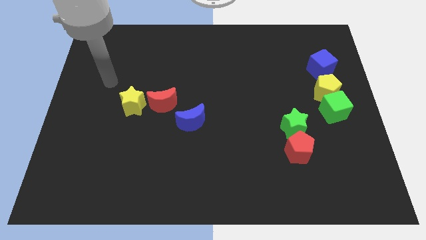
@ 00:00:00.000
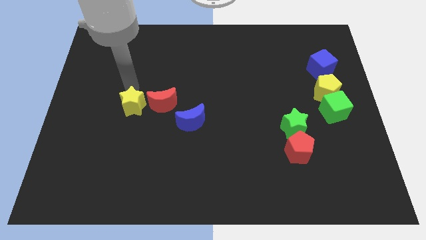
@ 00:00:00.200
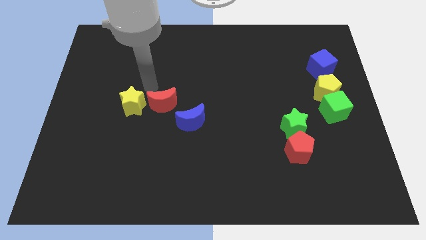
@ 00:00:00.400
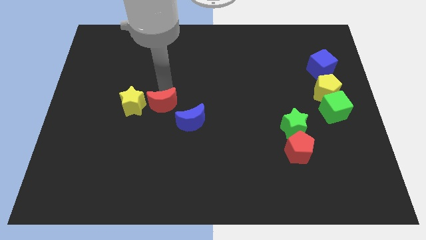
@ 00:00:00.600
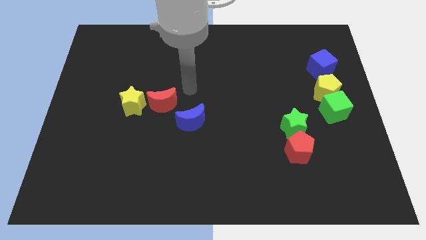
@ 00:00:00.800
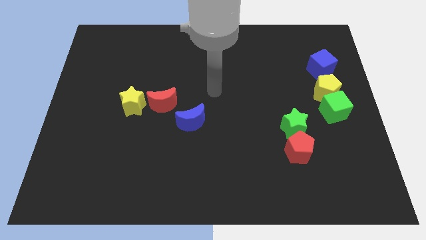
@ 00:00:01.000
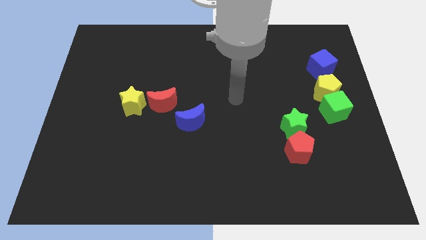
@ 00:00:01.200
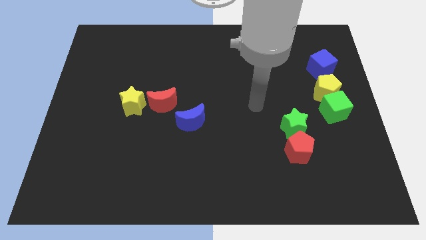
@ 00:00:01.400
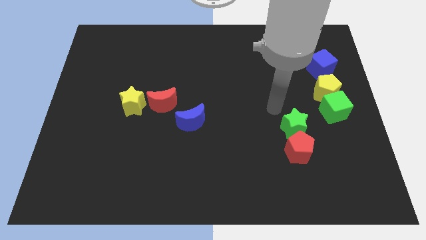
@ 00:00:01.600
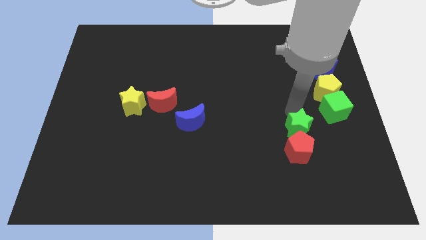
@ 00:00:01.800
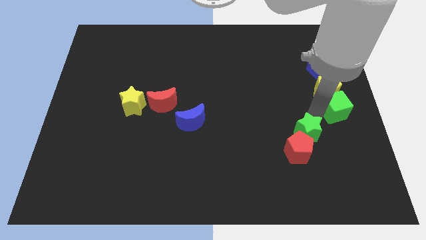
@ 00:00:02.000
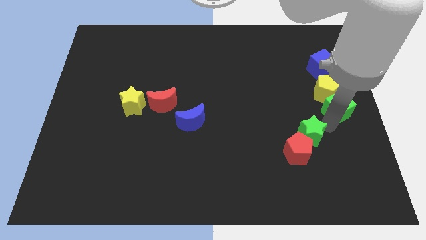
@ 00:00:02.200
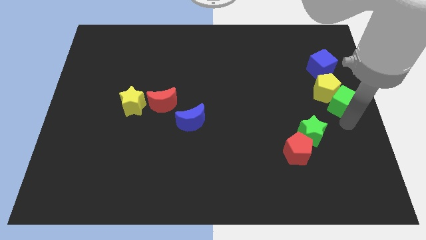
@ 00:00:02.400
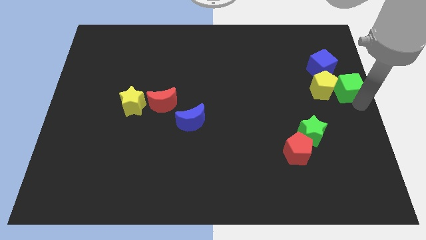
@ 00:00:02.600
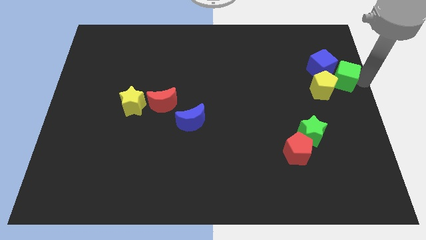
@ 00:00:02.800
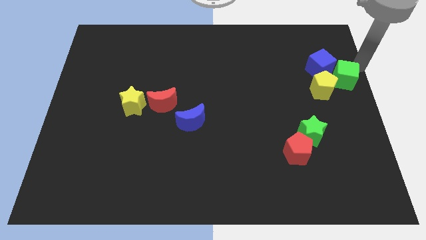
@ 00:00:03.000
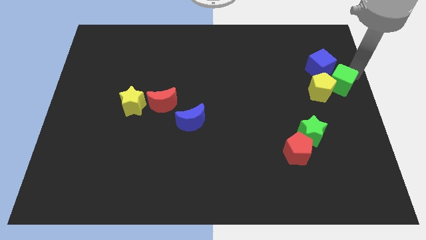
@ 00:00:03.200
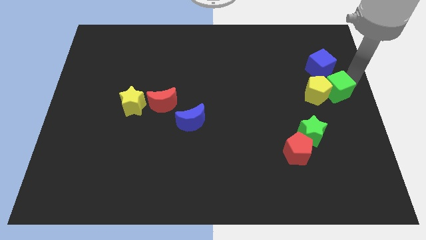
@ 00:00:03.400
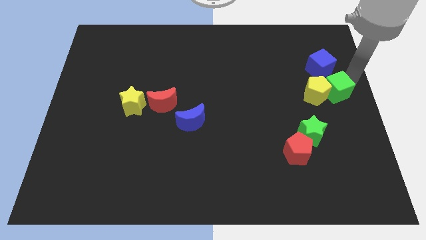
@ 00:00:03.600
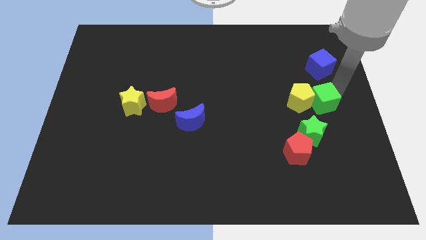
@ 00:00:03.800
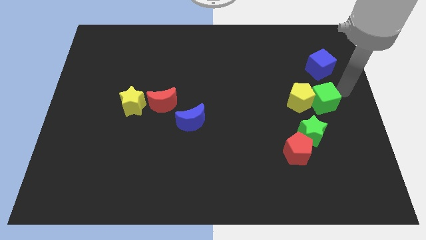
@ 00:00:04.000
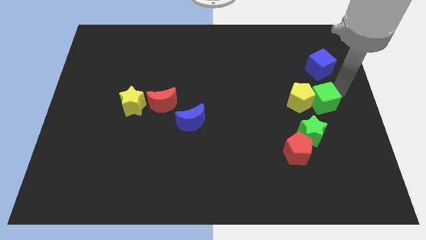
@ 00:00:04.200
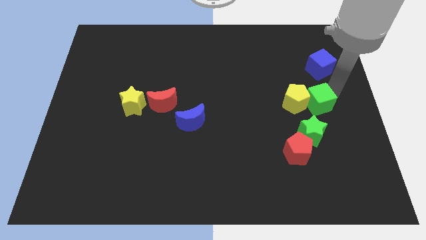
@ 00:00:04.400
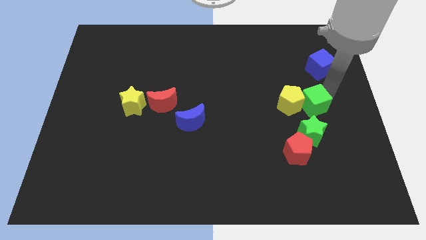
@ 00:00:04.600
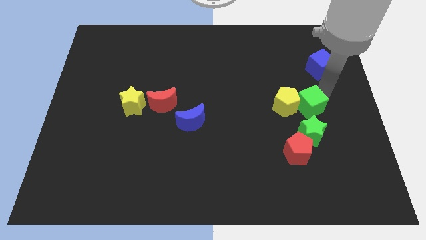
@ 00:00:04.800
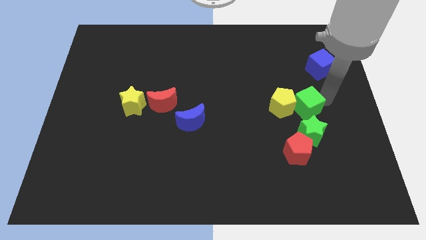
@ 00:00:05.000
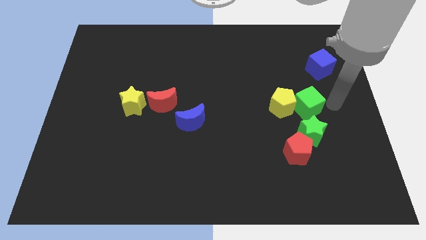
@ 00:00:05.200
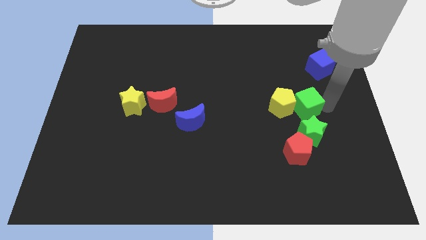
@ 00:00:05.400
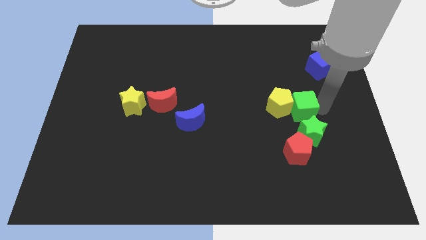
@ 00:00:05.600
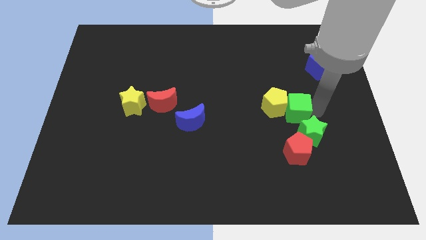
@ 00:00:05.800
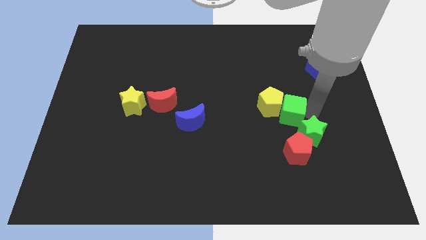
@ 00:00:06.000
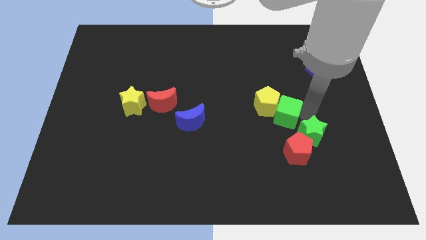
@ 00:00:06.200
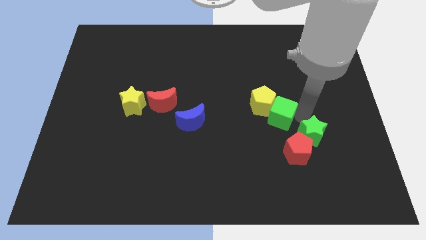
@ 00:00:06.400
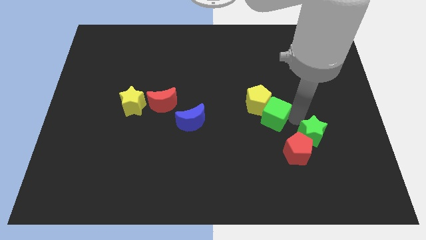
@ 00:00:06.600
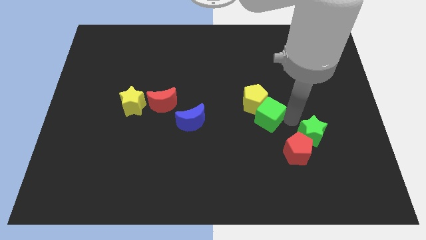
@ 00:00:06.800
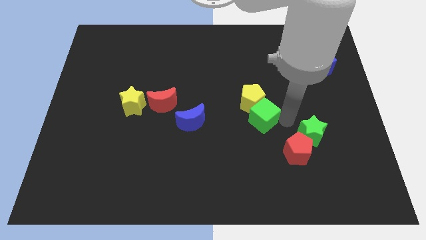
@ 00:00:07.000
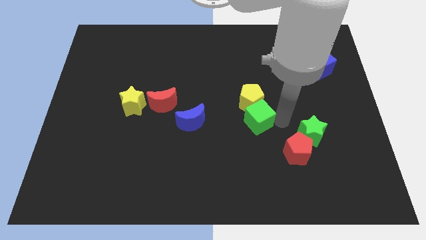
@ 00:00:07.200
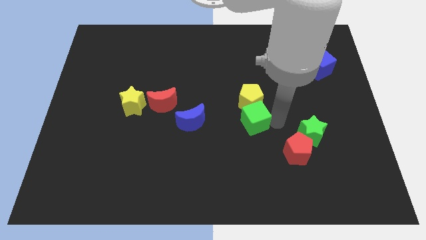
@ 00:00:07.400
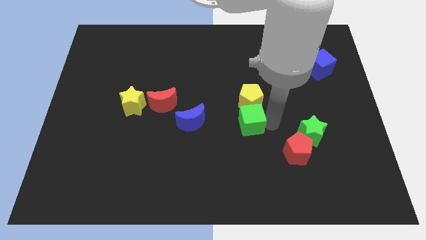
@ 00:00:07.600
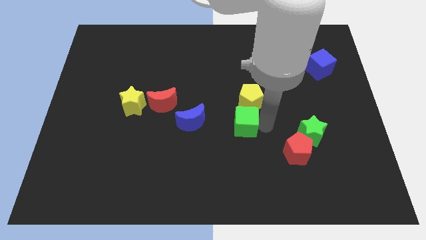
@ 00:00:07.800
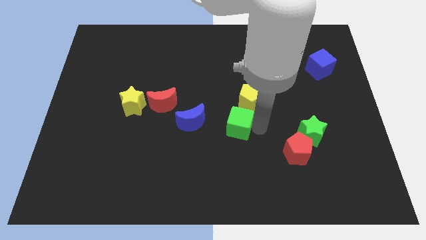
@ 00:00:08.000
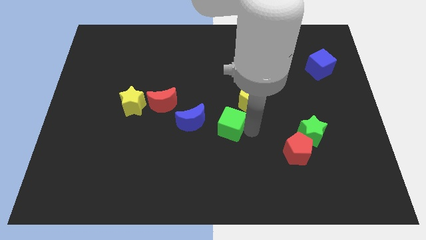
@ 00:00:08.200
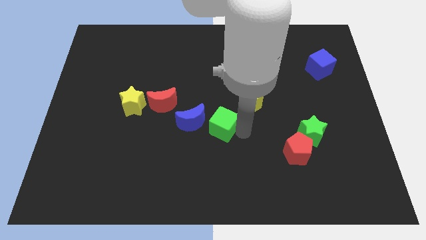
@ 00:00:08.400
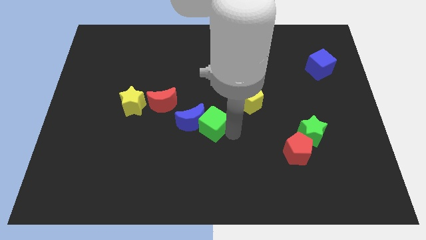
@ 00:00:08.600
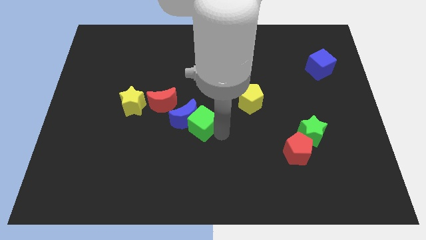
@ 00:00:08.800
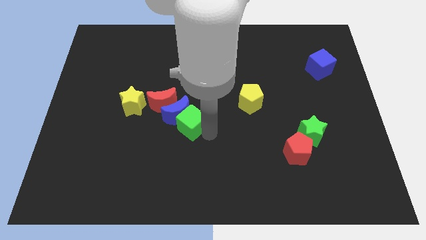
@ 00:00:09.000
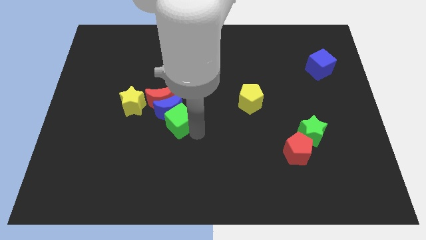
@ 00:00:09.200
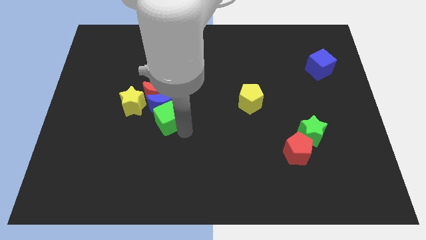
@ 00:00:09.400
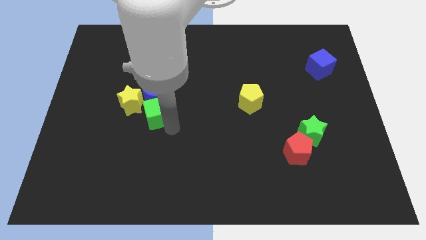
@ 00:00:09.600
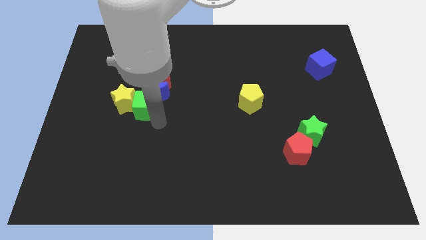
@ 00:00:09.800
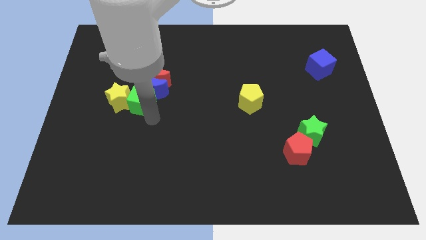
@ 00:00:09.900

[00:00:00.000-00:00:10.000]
slide the green cube diagonally up and to the right of the yellow star

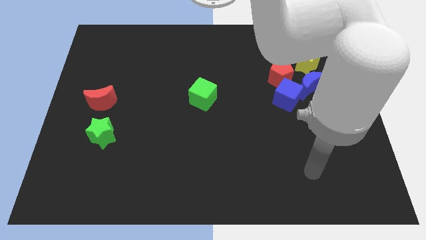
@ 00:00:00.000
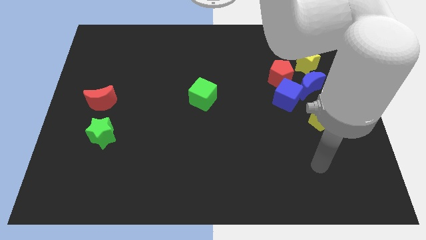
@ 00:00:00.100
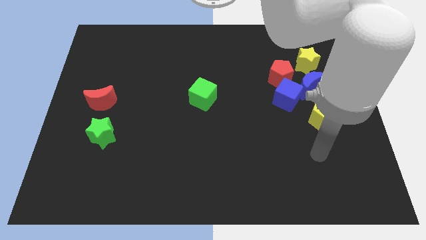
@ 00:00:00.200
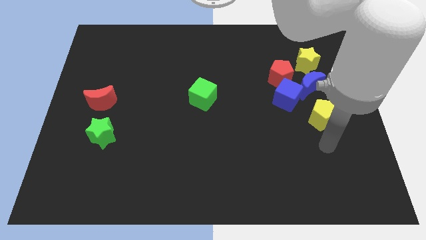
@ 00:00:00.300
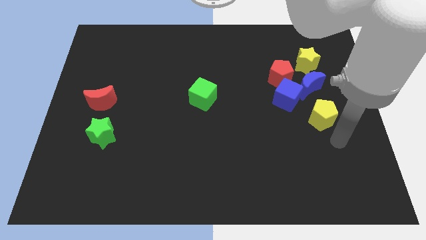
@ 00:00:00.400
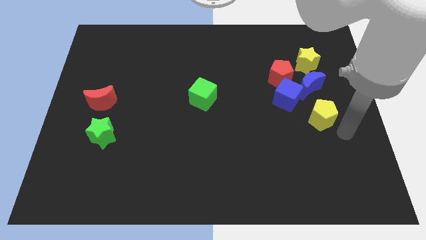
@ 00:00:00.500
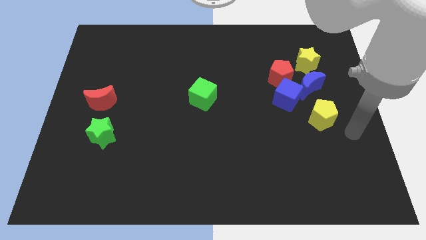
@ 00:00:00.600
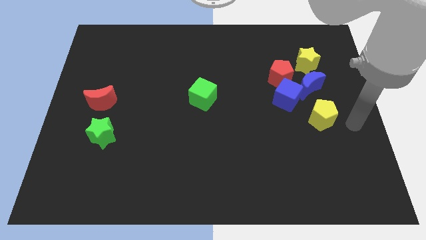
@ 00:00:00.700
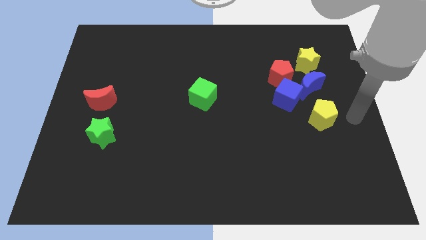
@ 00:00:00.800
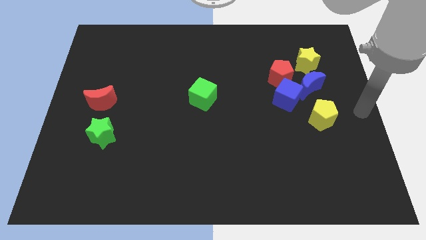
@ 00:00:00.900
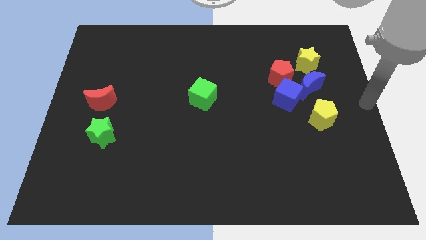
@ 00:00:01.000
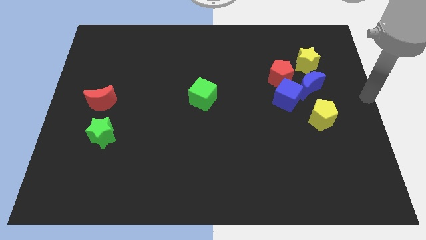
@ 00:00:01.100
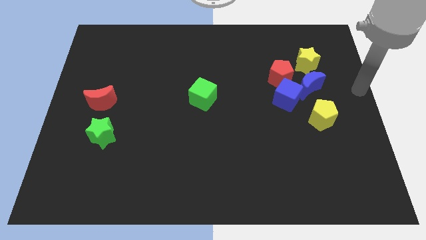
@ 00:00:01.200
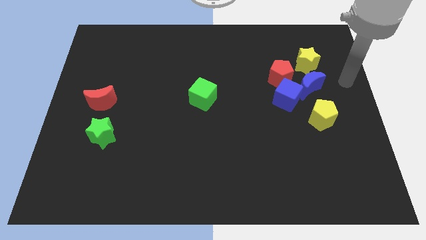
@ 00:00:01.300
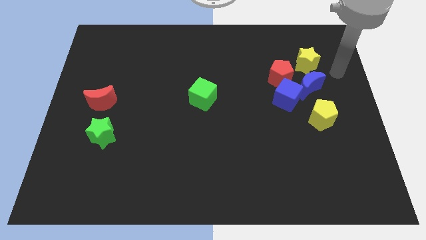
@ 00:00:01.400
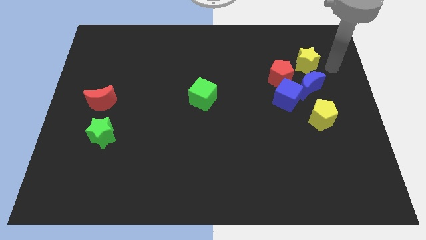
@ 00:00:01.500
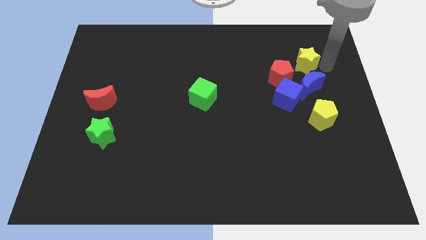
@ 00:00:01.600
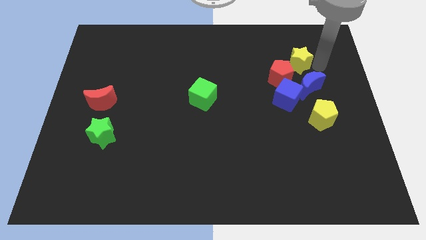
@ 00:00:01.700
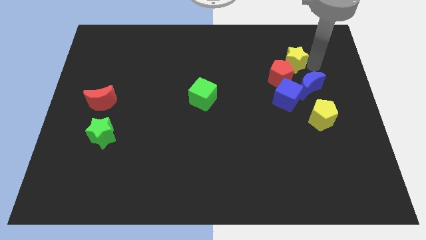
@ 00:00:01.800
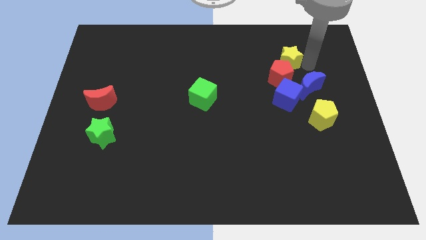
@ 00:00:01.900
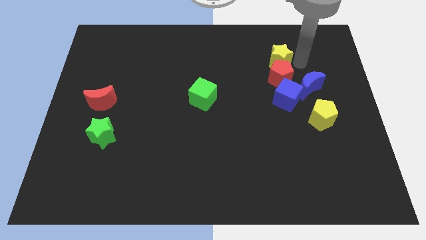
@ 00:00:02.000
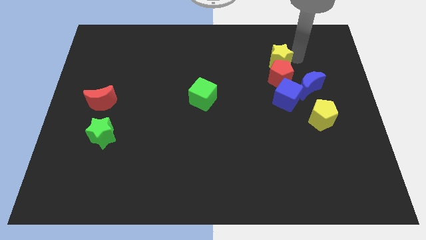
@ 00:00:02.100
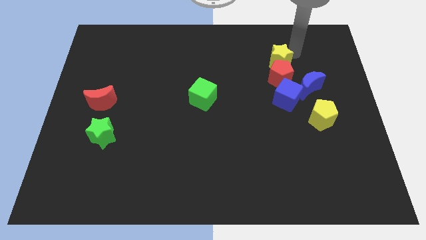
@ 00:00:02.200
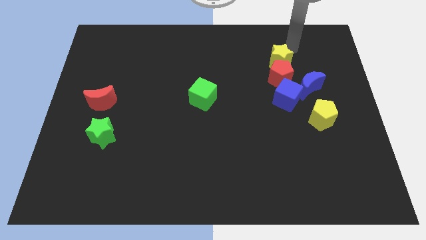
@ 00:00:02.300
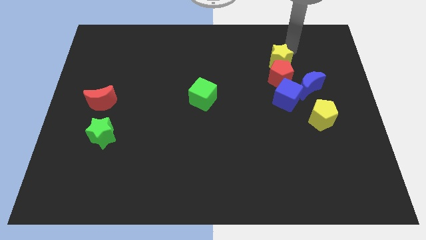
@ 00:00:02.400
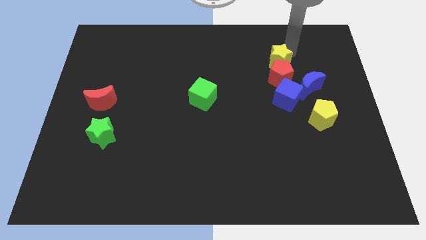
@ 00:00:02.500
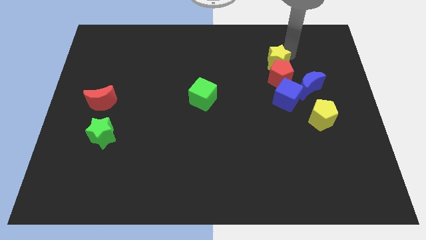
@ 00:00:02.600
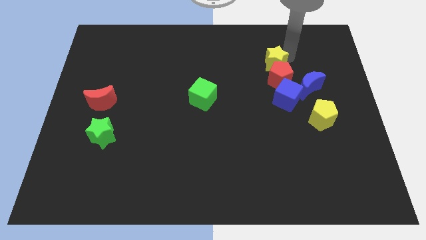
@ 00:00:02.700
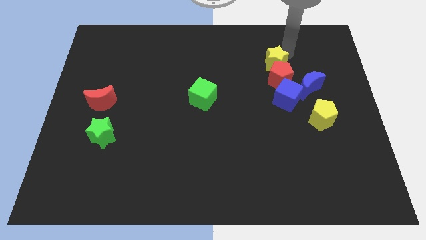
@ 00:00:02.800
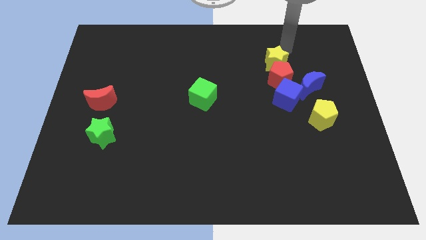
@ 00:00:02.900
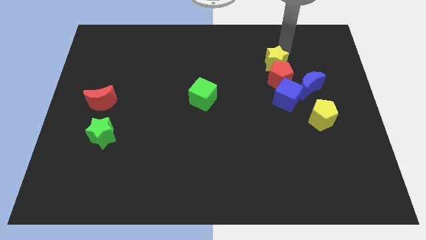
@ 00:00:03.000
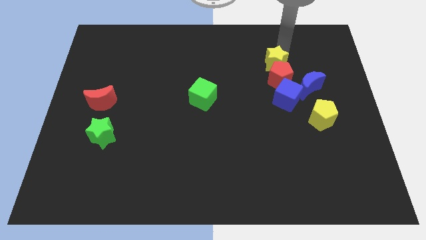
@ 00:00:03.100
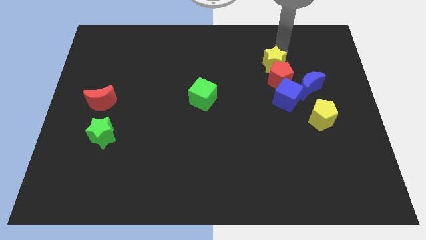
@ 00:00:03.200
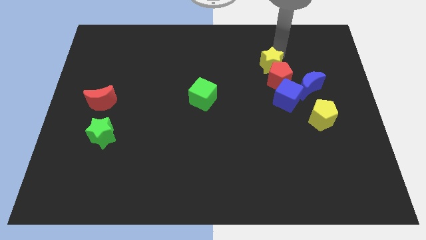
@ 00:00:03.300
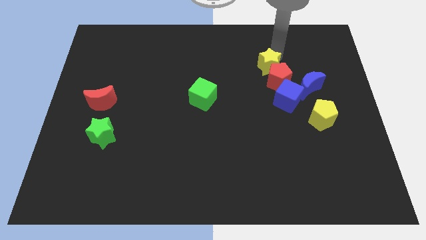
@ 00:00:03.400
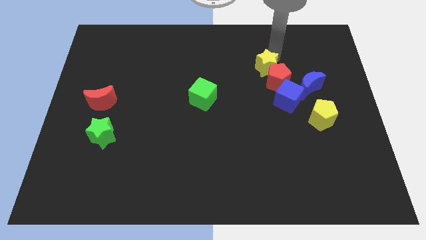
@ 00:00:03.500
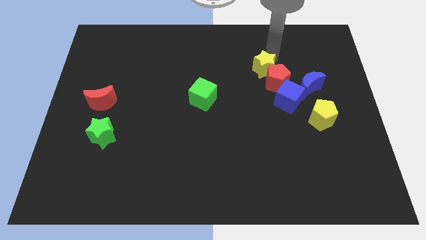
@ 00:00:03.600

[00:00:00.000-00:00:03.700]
push the yellow star to the top left of the blue cube
